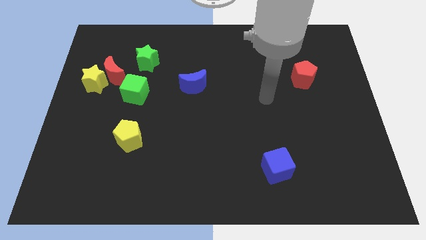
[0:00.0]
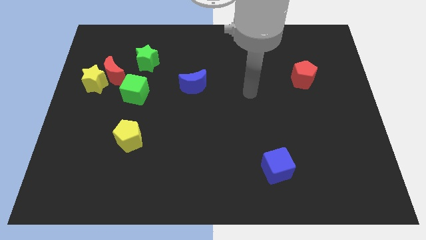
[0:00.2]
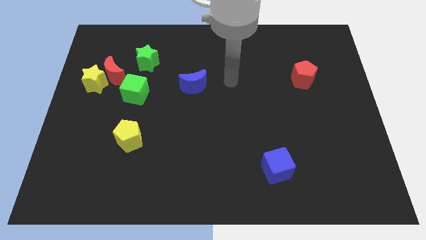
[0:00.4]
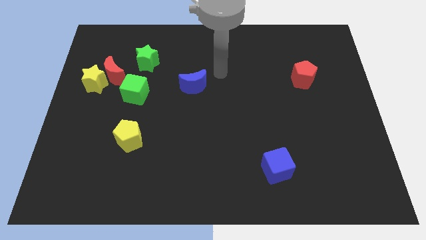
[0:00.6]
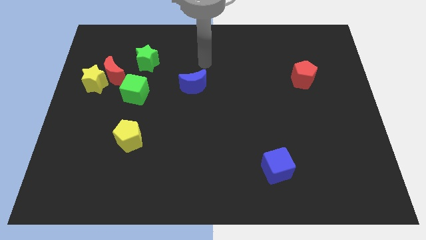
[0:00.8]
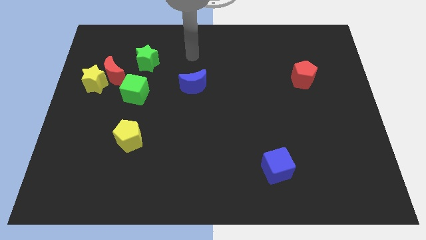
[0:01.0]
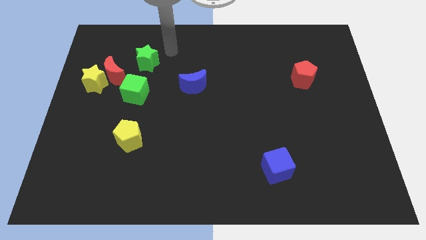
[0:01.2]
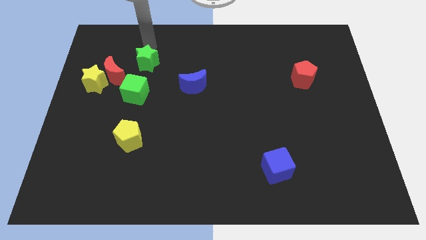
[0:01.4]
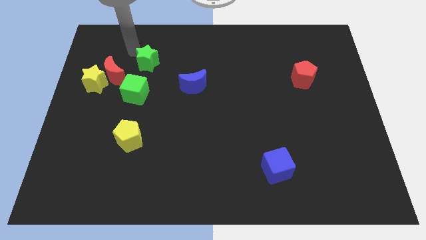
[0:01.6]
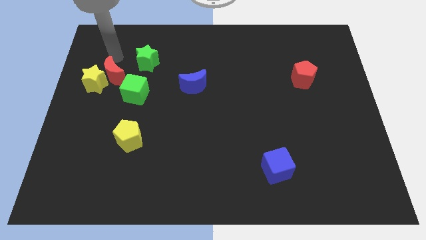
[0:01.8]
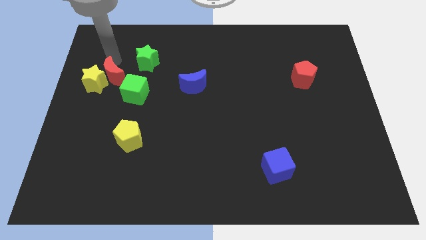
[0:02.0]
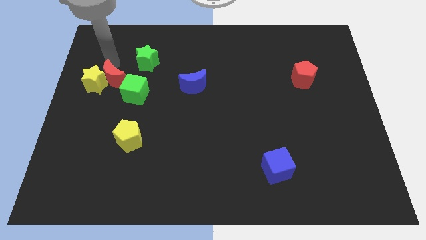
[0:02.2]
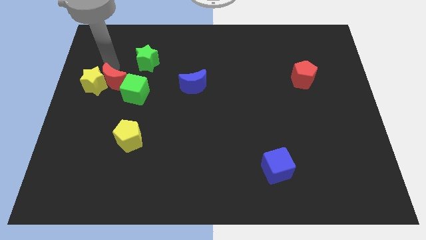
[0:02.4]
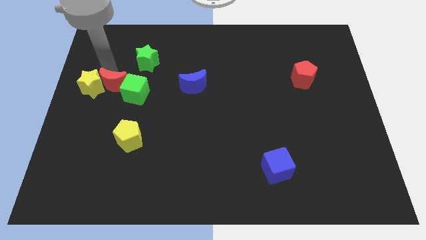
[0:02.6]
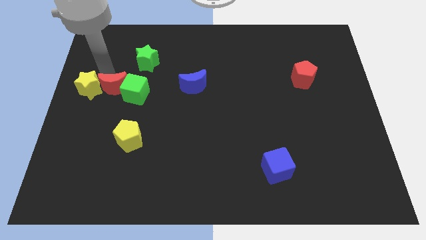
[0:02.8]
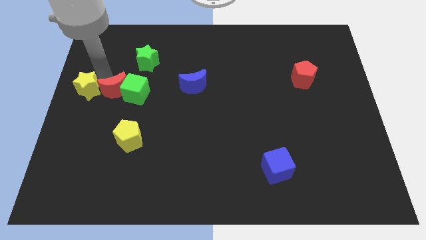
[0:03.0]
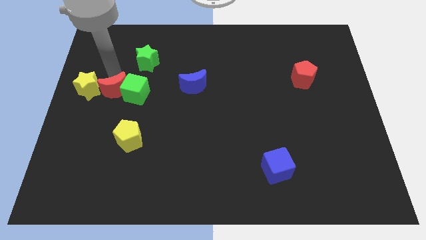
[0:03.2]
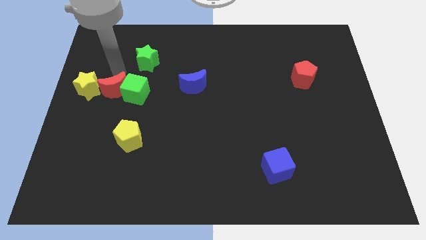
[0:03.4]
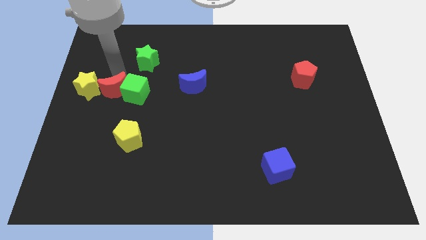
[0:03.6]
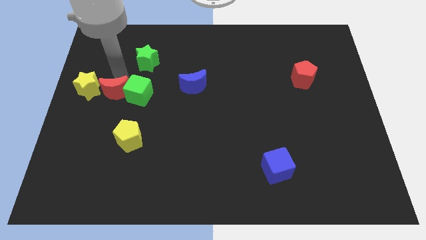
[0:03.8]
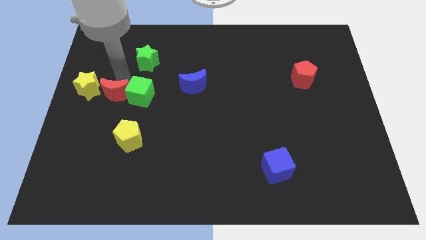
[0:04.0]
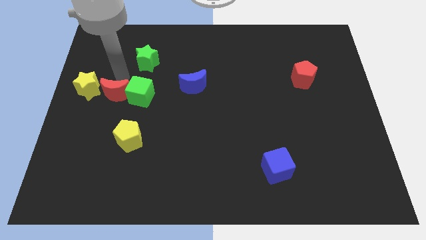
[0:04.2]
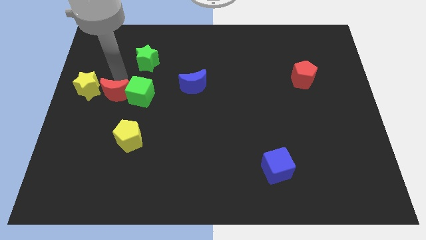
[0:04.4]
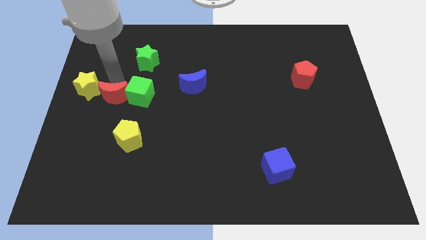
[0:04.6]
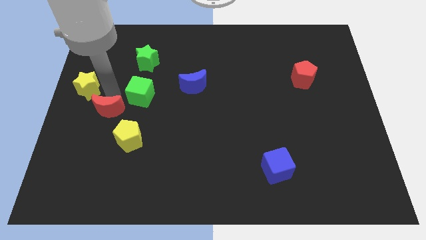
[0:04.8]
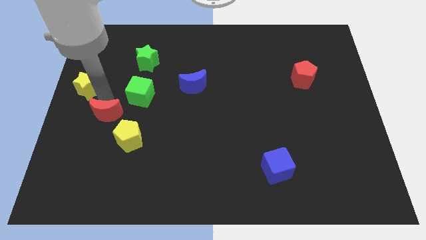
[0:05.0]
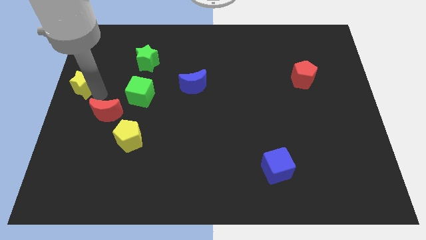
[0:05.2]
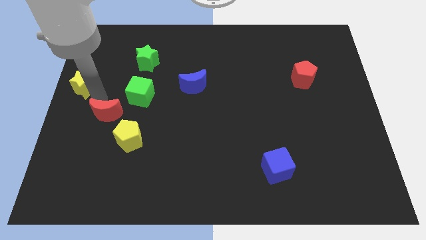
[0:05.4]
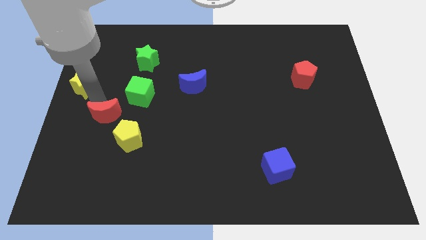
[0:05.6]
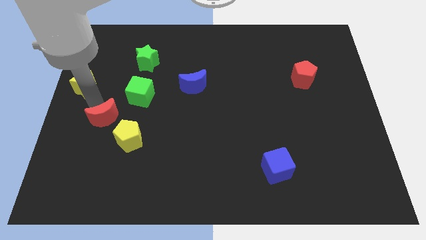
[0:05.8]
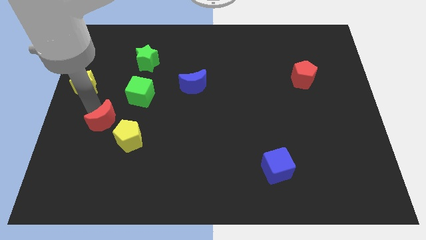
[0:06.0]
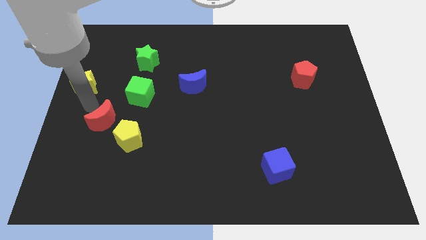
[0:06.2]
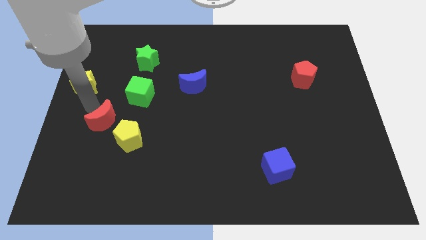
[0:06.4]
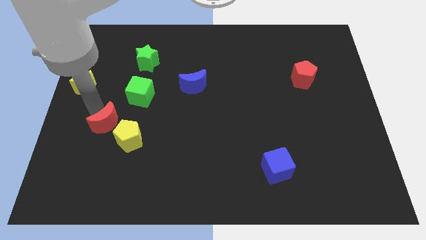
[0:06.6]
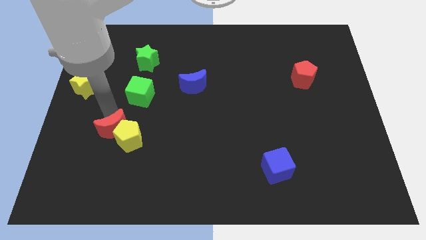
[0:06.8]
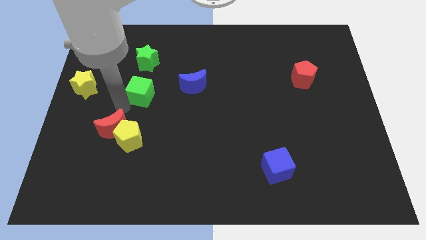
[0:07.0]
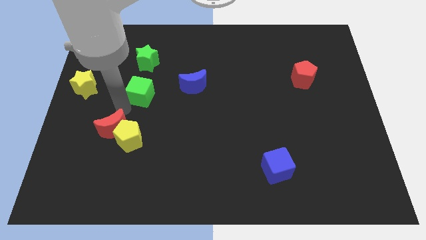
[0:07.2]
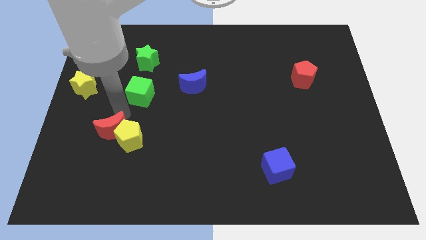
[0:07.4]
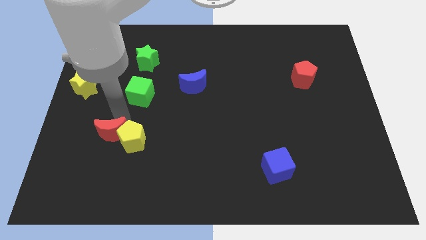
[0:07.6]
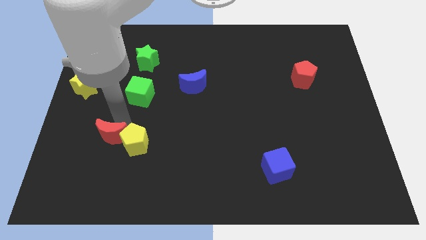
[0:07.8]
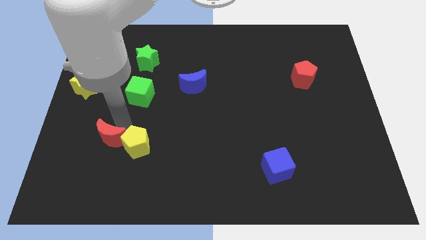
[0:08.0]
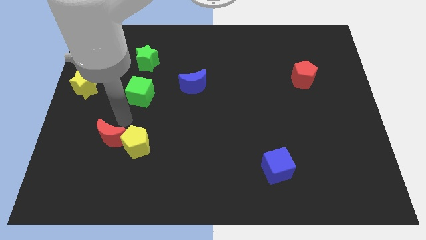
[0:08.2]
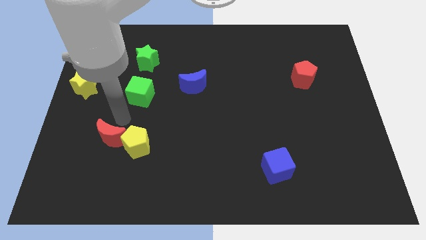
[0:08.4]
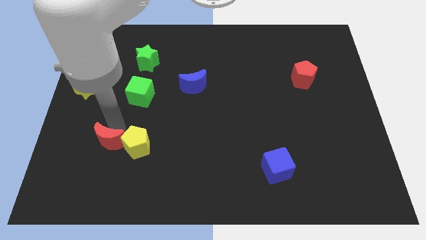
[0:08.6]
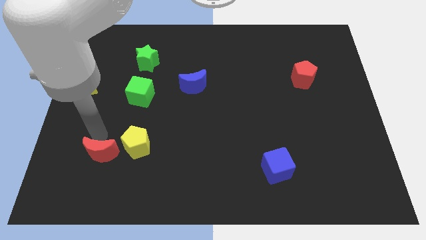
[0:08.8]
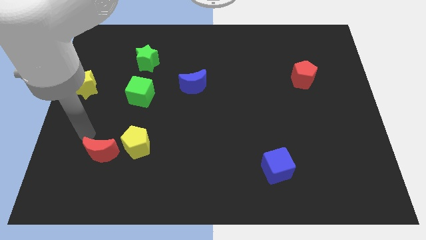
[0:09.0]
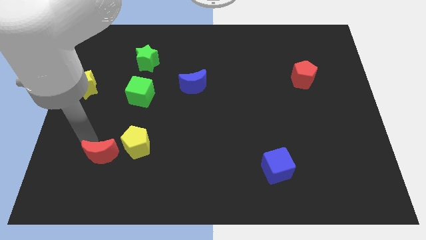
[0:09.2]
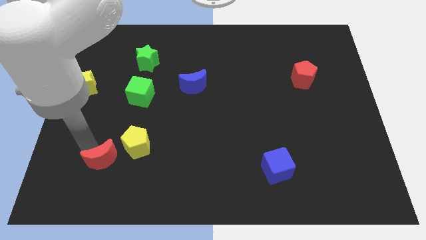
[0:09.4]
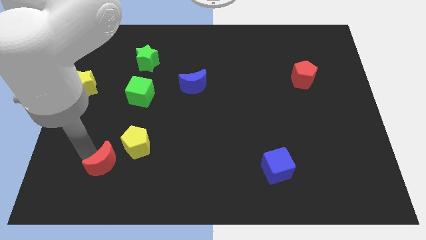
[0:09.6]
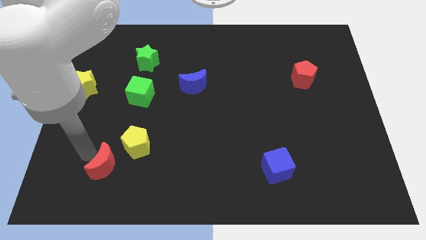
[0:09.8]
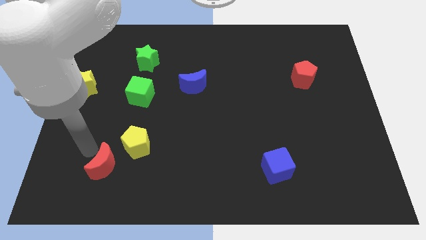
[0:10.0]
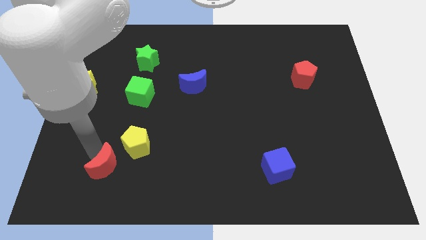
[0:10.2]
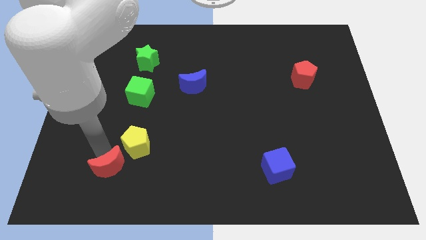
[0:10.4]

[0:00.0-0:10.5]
put the red moon to the bottom side of the yellow pentagon

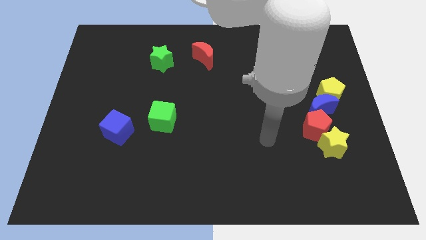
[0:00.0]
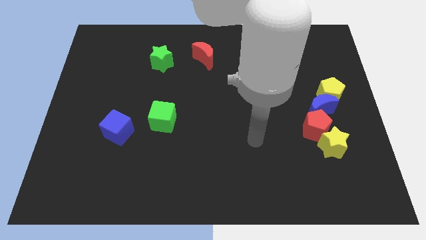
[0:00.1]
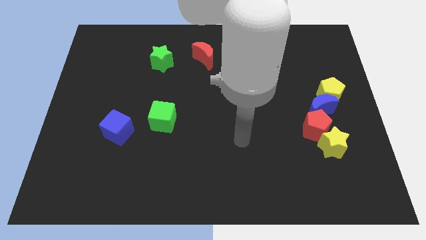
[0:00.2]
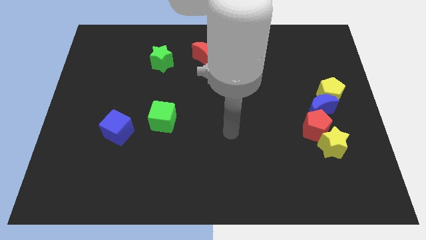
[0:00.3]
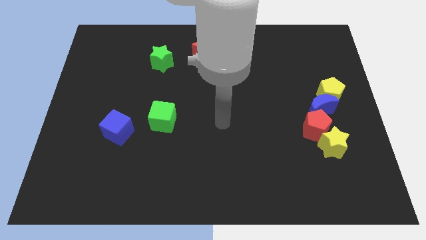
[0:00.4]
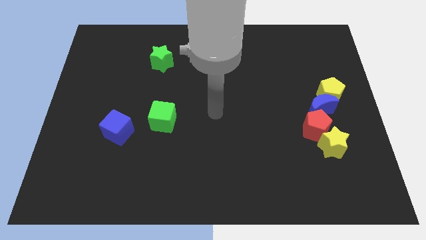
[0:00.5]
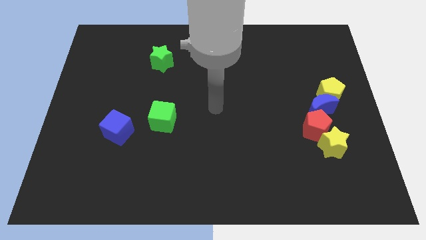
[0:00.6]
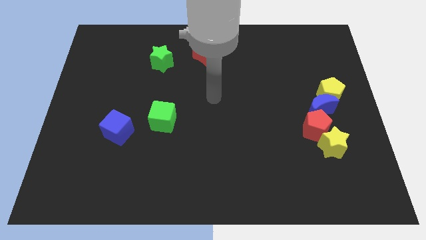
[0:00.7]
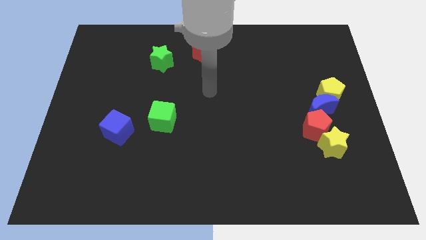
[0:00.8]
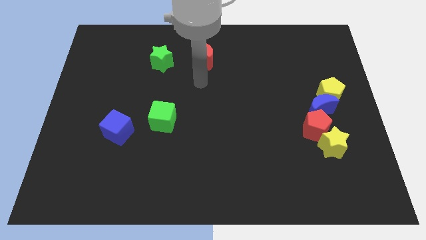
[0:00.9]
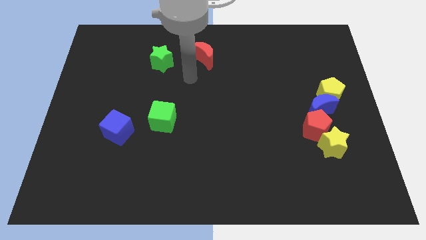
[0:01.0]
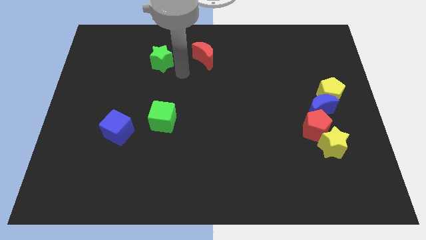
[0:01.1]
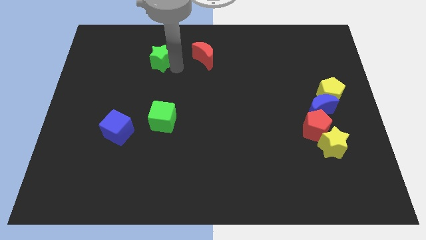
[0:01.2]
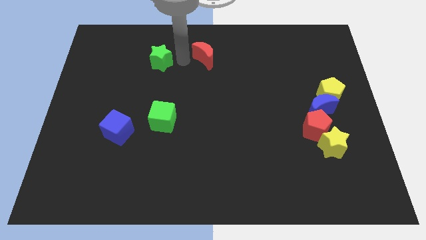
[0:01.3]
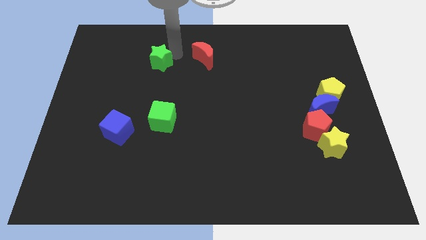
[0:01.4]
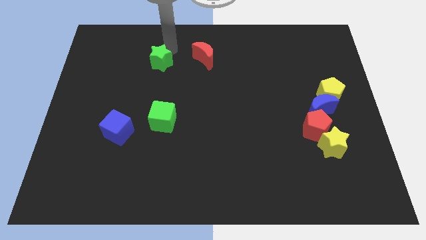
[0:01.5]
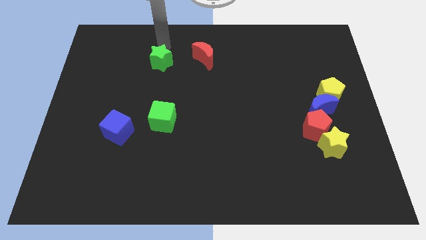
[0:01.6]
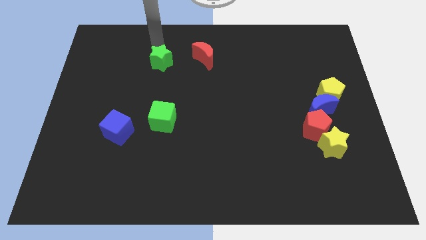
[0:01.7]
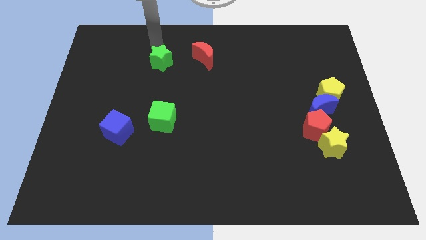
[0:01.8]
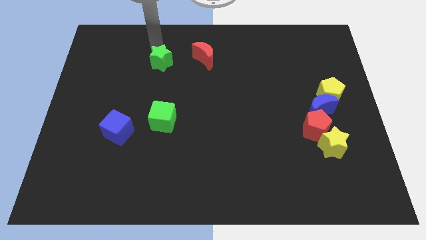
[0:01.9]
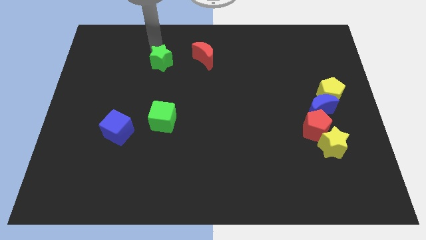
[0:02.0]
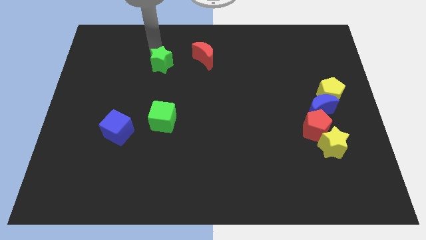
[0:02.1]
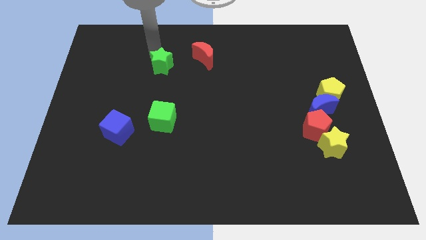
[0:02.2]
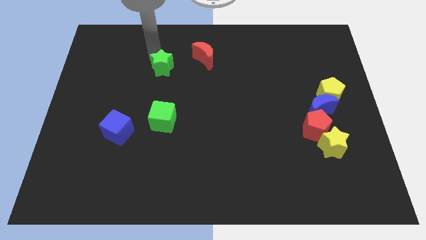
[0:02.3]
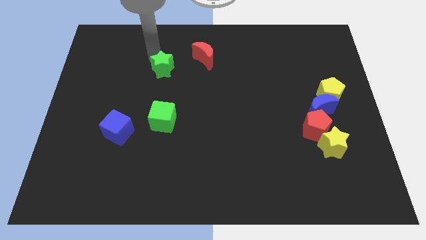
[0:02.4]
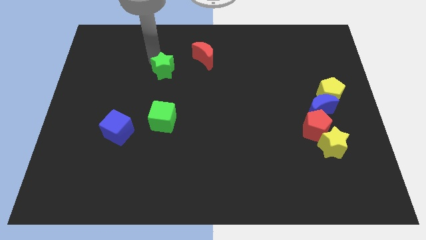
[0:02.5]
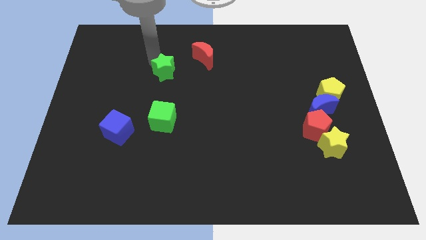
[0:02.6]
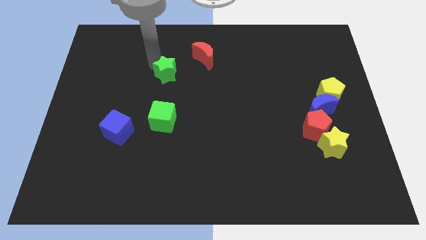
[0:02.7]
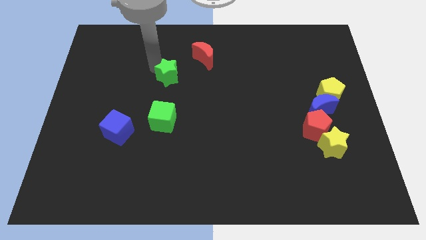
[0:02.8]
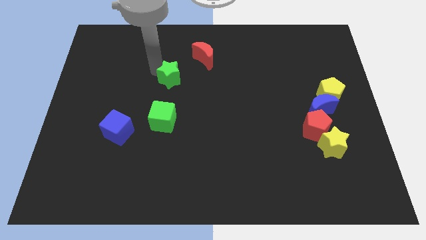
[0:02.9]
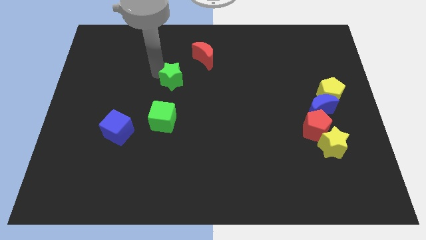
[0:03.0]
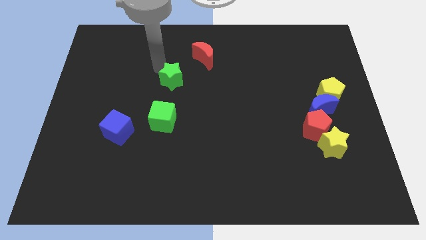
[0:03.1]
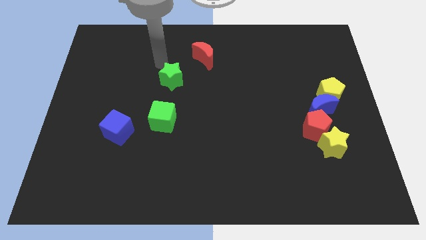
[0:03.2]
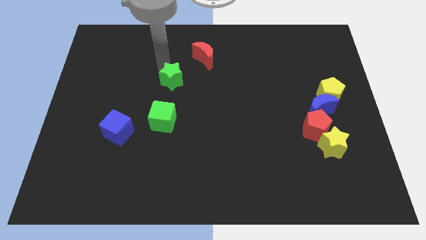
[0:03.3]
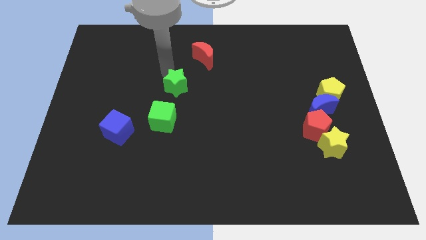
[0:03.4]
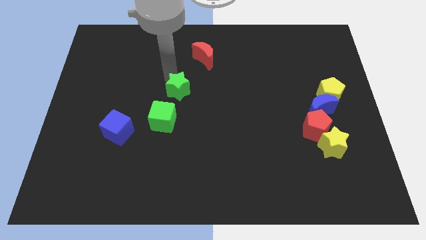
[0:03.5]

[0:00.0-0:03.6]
slide the green star to the top right of the green cube
